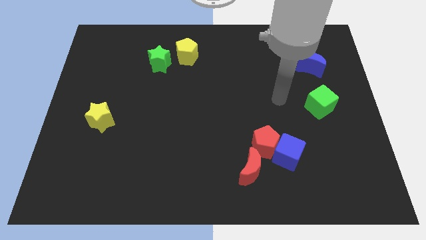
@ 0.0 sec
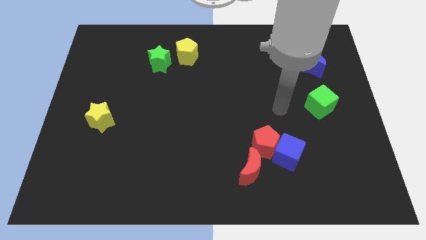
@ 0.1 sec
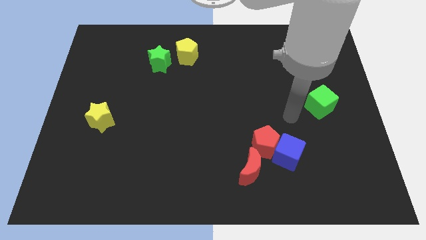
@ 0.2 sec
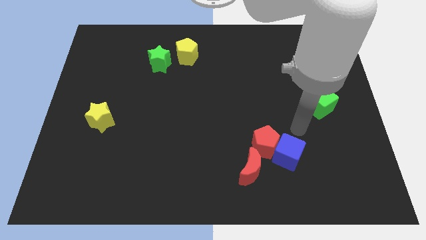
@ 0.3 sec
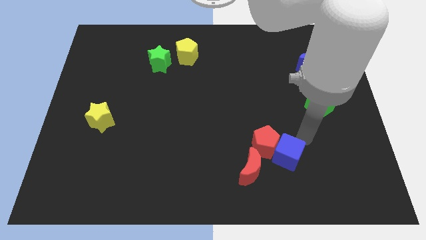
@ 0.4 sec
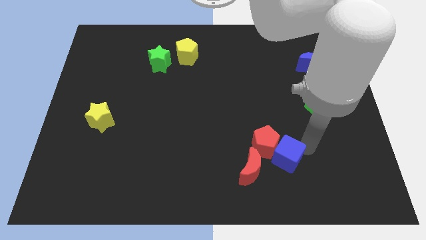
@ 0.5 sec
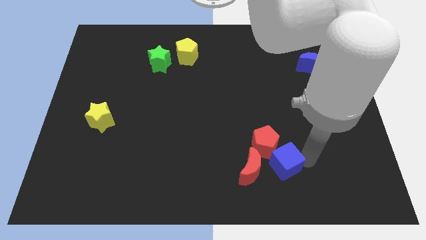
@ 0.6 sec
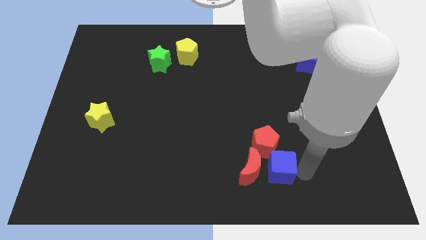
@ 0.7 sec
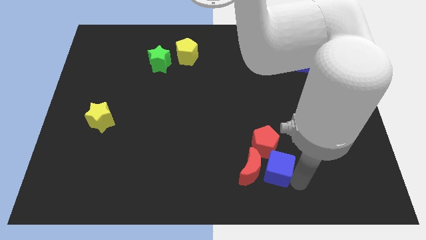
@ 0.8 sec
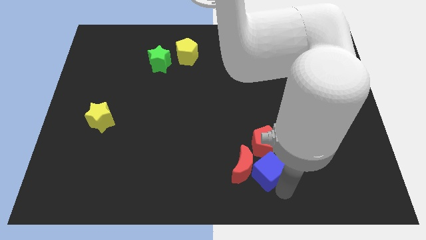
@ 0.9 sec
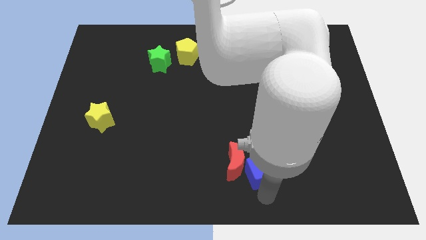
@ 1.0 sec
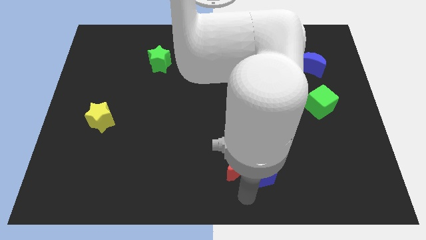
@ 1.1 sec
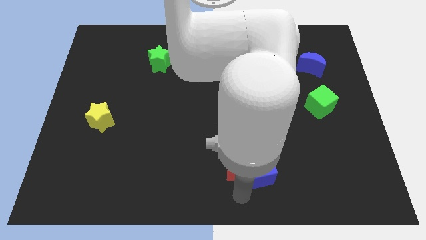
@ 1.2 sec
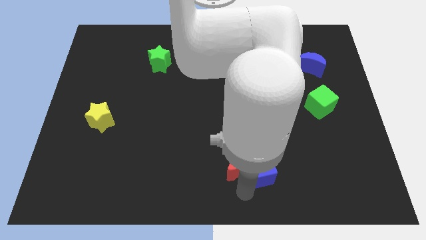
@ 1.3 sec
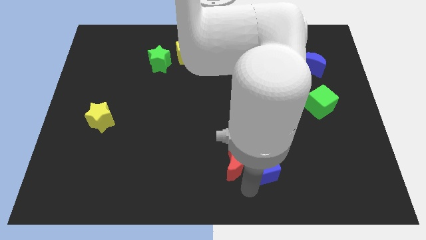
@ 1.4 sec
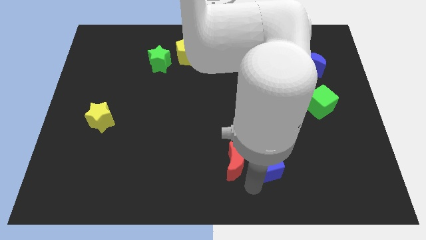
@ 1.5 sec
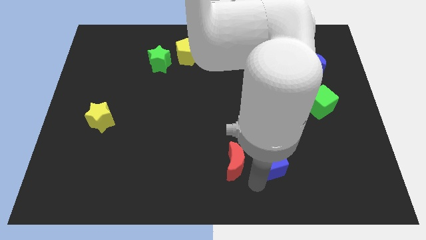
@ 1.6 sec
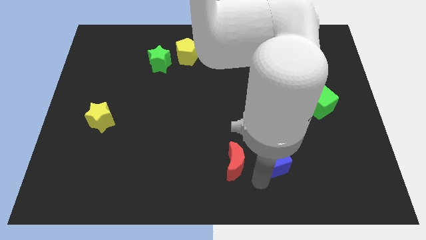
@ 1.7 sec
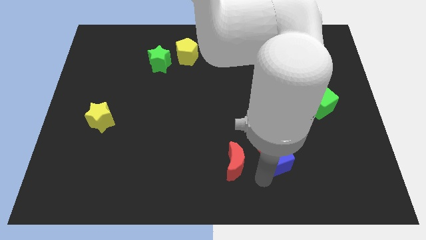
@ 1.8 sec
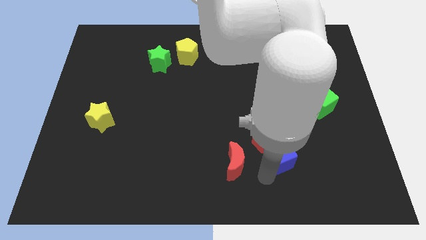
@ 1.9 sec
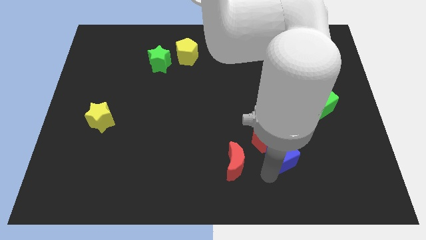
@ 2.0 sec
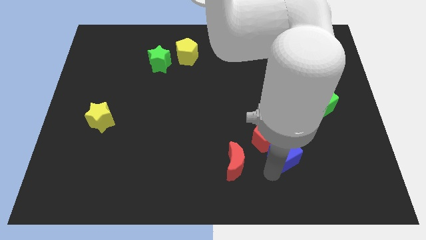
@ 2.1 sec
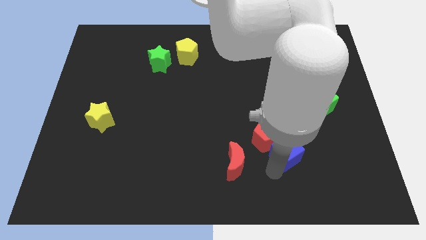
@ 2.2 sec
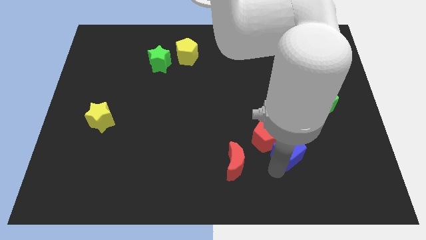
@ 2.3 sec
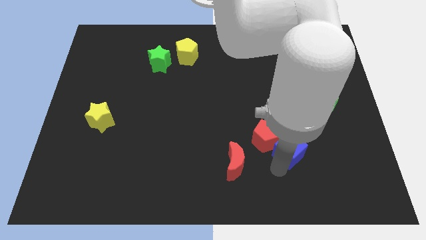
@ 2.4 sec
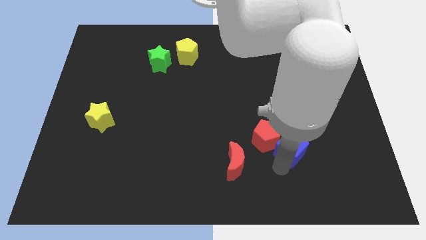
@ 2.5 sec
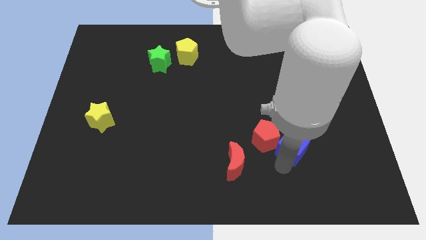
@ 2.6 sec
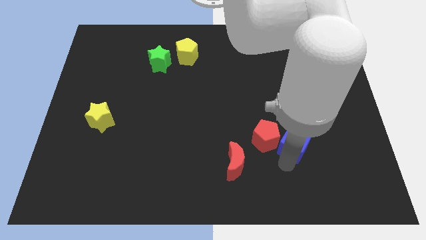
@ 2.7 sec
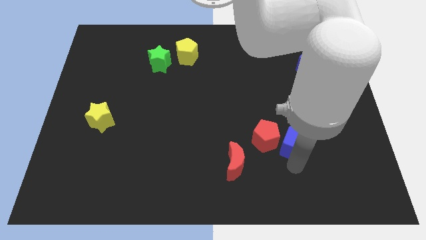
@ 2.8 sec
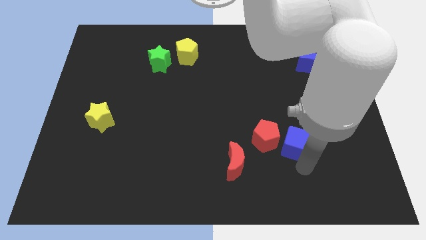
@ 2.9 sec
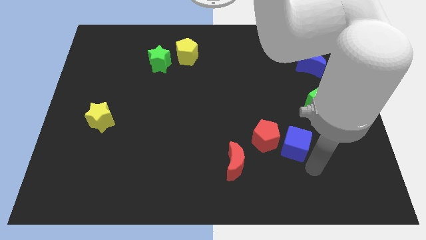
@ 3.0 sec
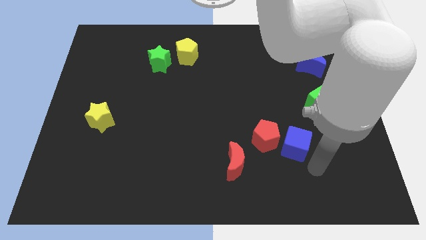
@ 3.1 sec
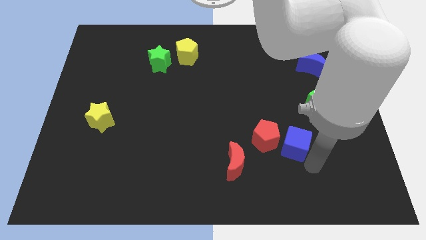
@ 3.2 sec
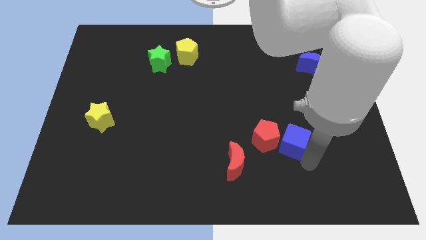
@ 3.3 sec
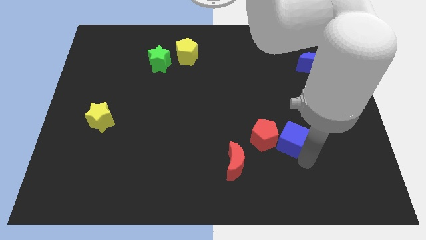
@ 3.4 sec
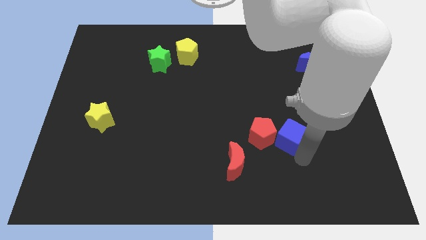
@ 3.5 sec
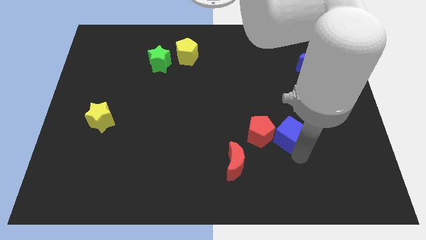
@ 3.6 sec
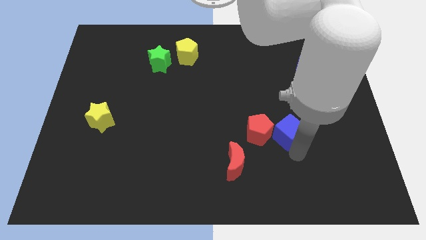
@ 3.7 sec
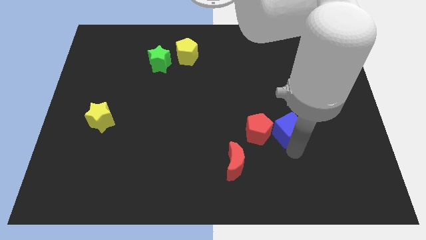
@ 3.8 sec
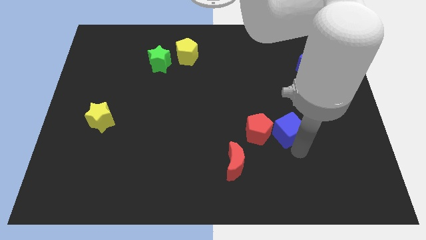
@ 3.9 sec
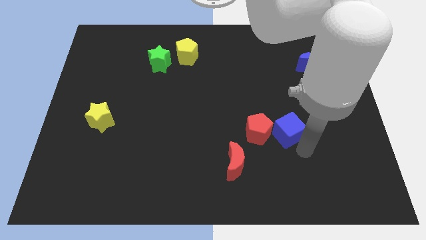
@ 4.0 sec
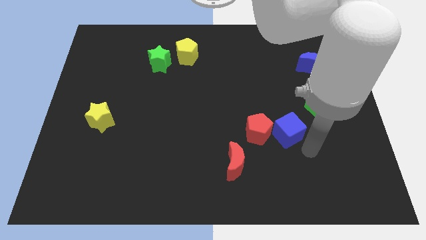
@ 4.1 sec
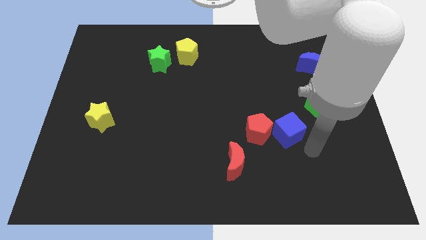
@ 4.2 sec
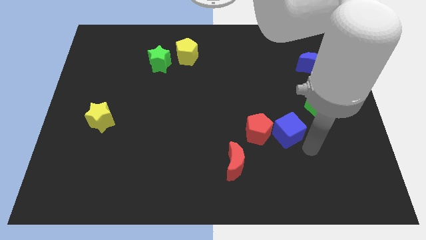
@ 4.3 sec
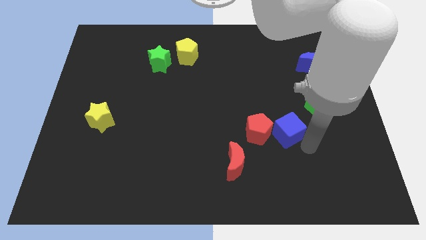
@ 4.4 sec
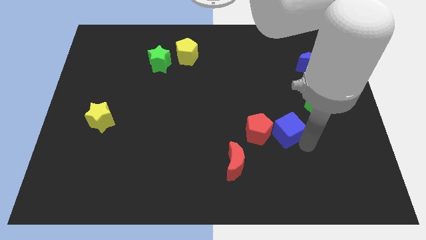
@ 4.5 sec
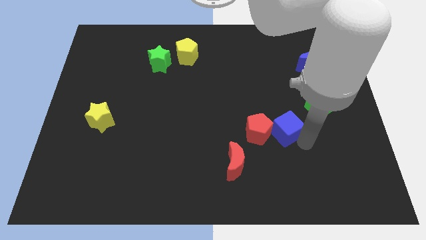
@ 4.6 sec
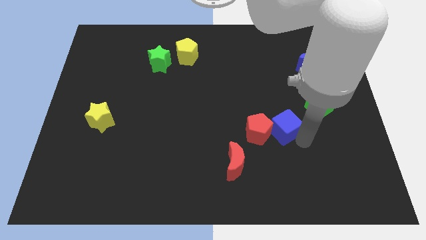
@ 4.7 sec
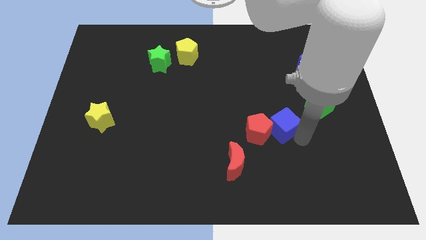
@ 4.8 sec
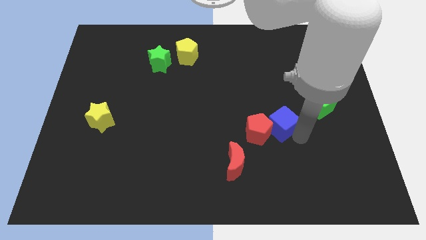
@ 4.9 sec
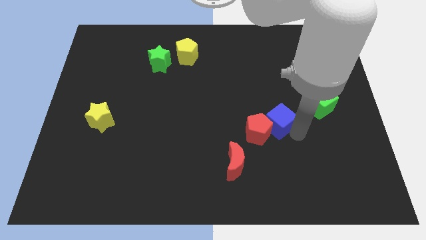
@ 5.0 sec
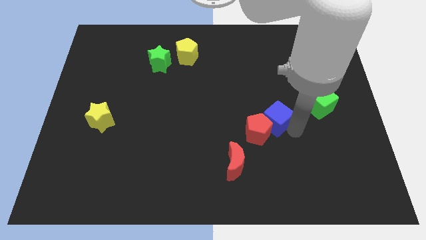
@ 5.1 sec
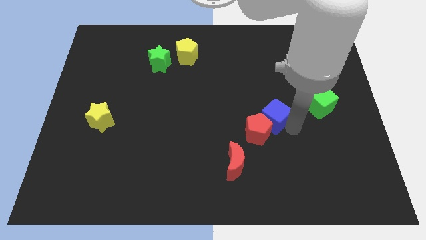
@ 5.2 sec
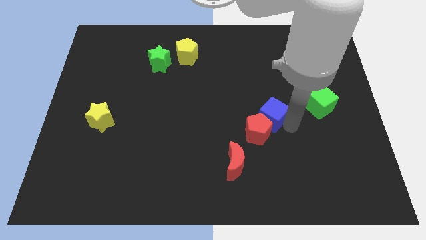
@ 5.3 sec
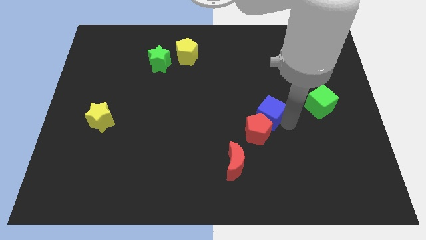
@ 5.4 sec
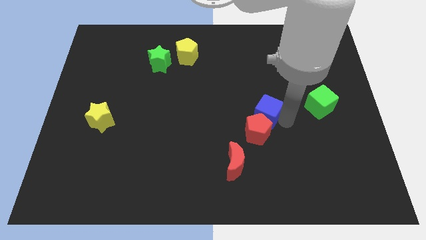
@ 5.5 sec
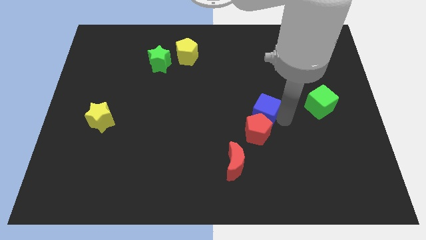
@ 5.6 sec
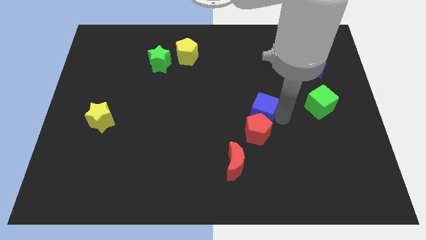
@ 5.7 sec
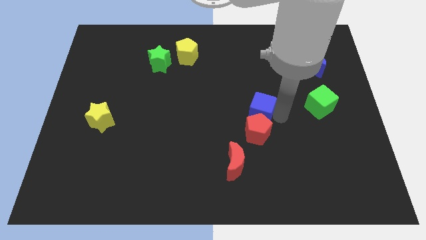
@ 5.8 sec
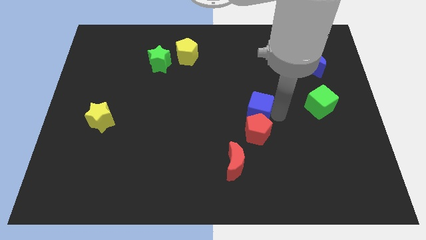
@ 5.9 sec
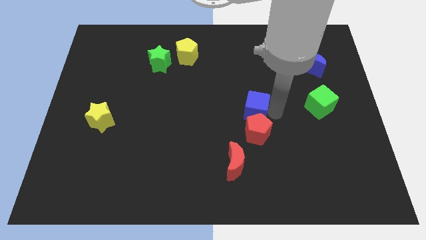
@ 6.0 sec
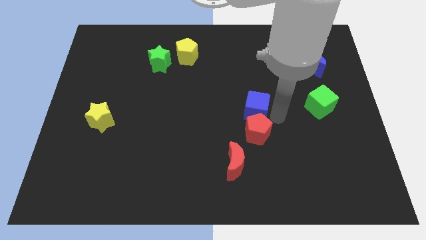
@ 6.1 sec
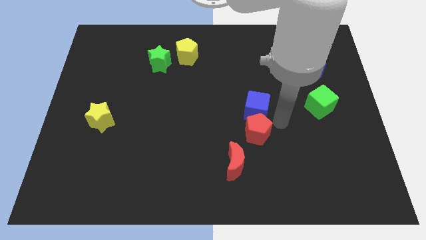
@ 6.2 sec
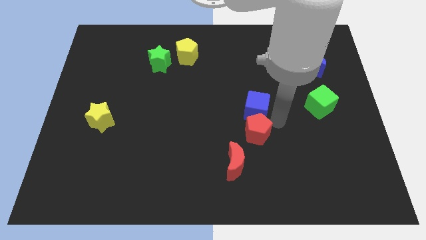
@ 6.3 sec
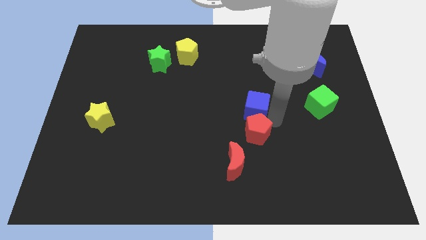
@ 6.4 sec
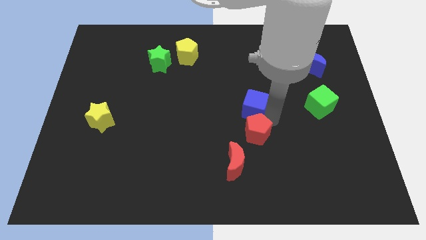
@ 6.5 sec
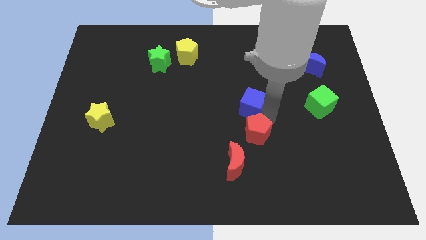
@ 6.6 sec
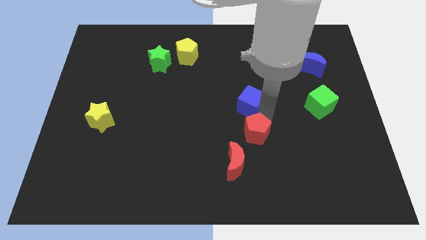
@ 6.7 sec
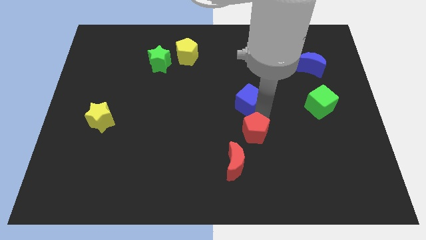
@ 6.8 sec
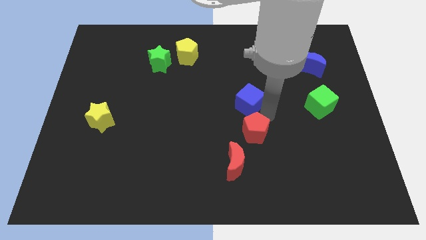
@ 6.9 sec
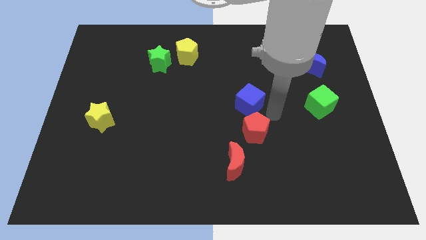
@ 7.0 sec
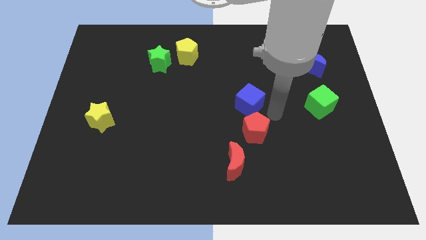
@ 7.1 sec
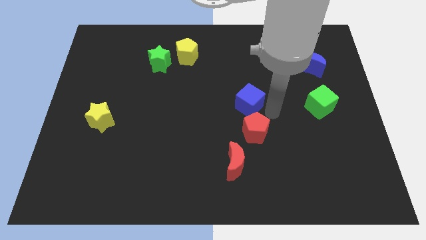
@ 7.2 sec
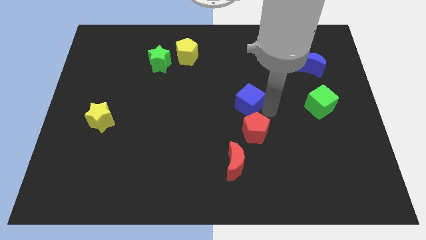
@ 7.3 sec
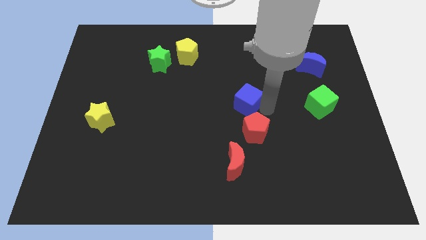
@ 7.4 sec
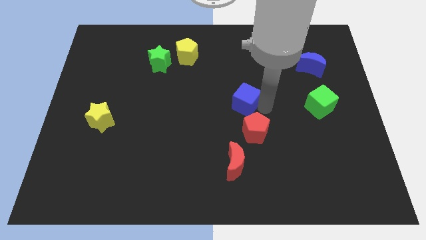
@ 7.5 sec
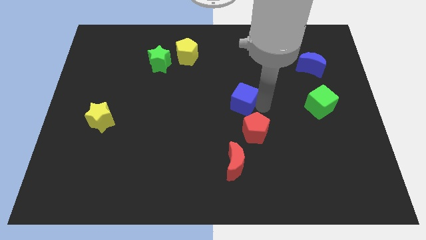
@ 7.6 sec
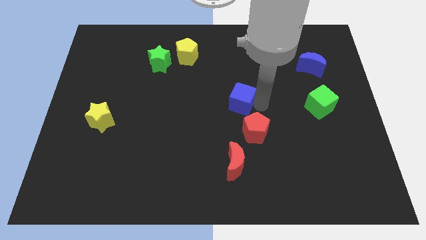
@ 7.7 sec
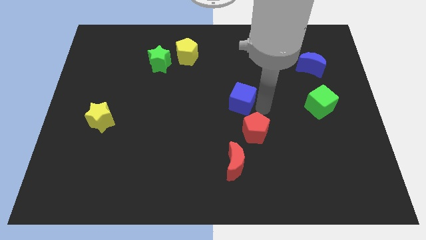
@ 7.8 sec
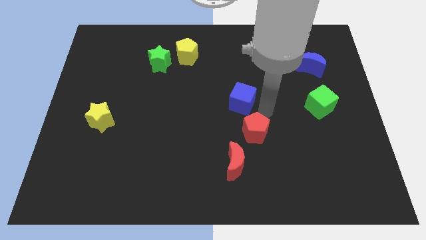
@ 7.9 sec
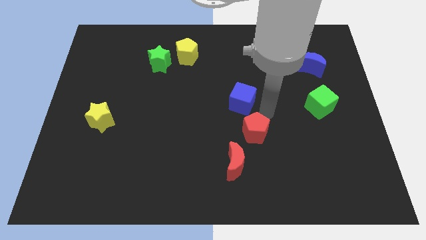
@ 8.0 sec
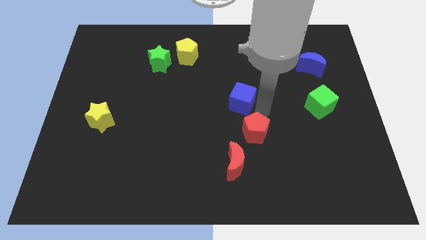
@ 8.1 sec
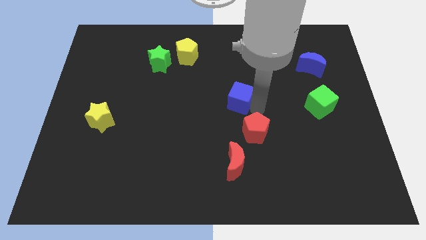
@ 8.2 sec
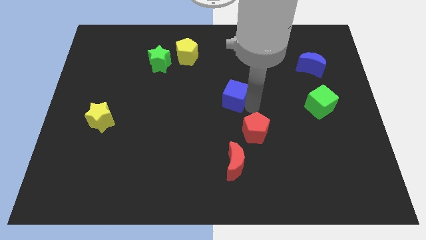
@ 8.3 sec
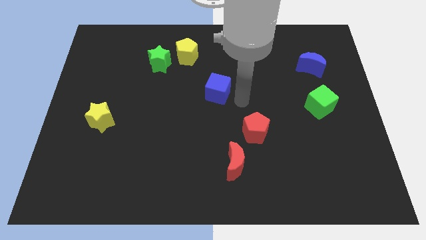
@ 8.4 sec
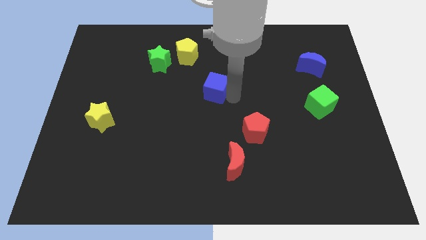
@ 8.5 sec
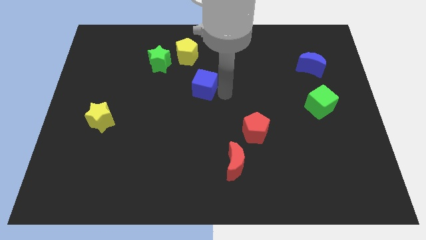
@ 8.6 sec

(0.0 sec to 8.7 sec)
move the blue cube below the yellow pentagon
